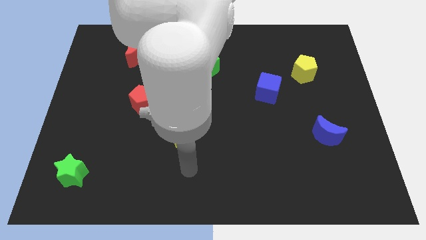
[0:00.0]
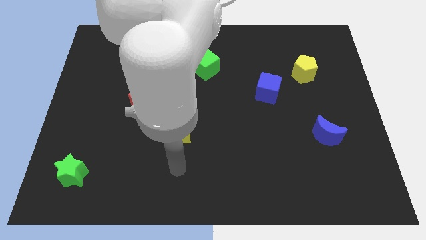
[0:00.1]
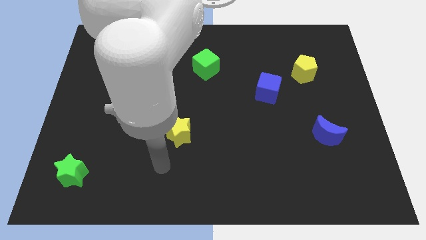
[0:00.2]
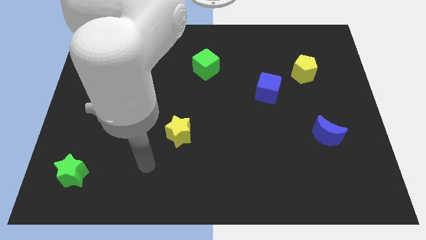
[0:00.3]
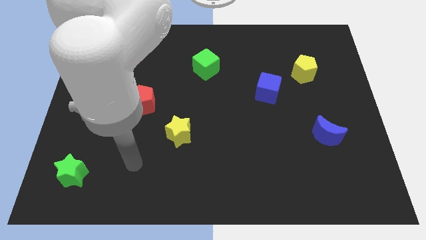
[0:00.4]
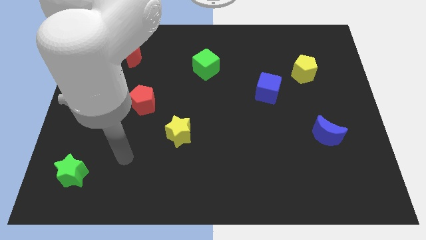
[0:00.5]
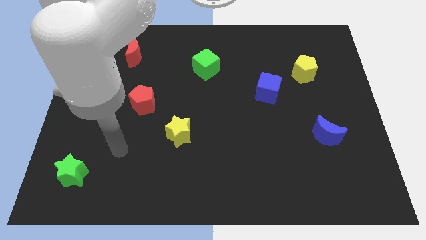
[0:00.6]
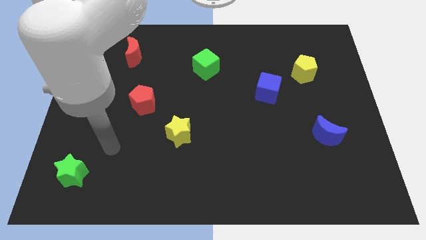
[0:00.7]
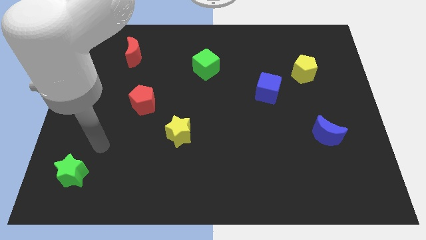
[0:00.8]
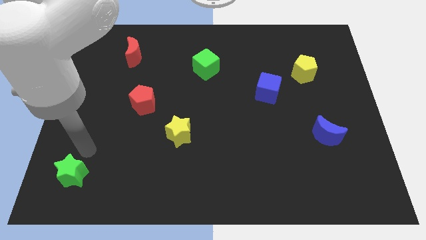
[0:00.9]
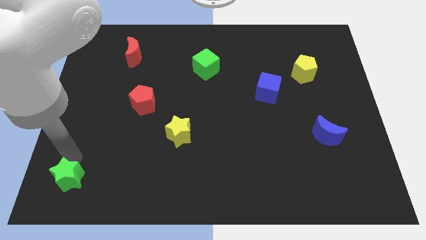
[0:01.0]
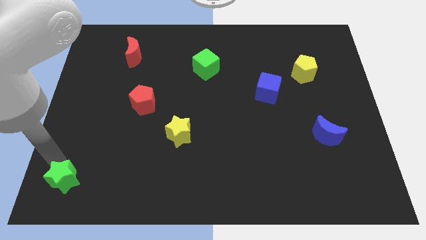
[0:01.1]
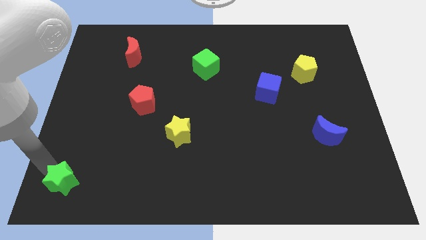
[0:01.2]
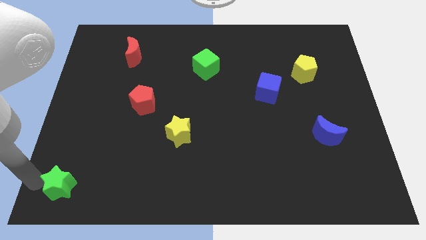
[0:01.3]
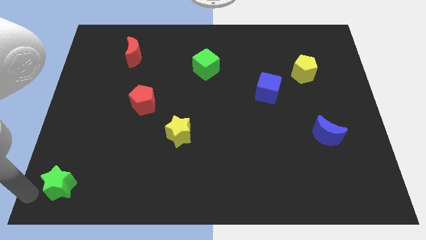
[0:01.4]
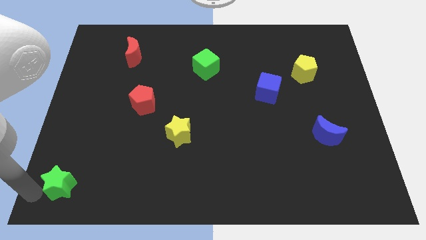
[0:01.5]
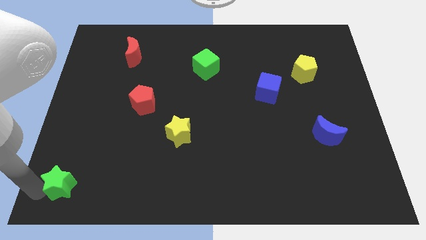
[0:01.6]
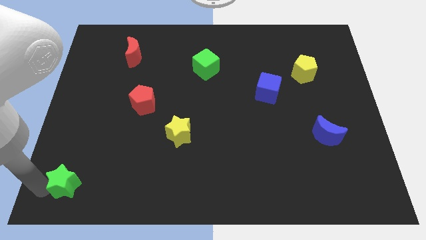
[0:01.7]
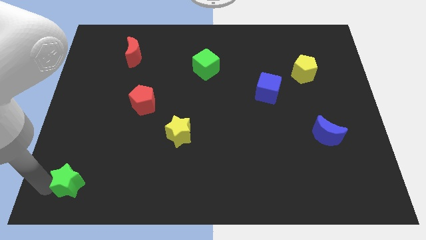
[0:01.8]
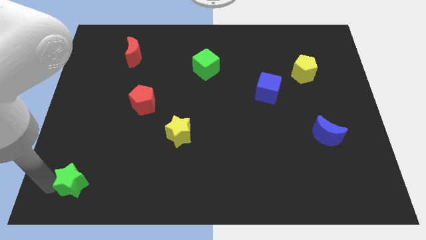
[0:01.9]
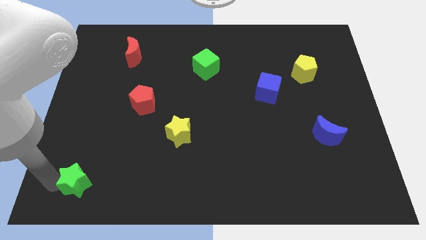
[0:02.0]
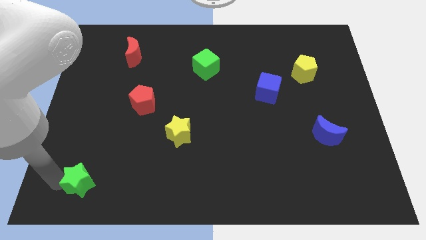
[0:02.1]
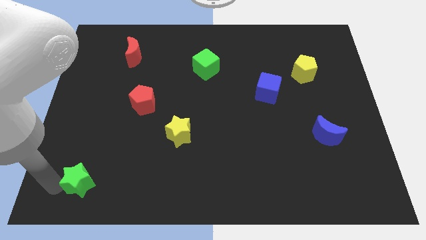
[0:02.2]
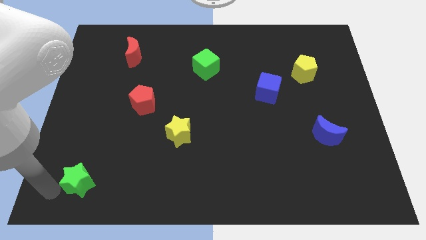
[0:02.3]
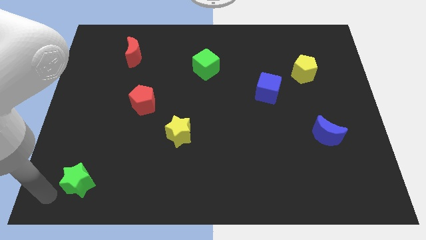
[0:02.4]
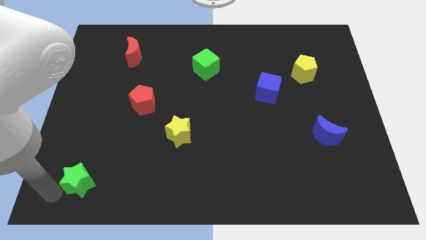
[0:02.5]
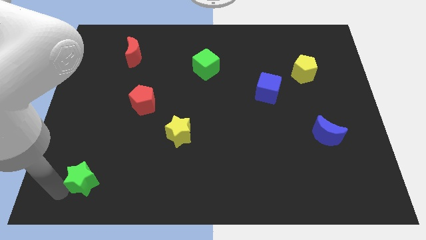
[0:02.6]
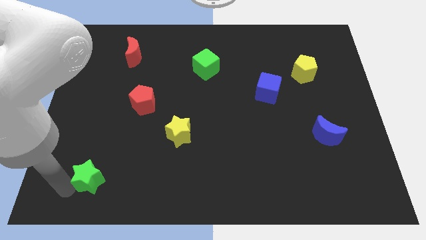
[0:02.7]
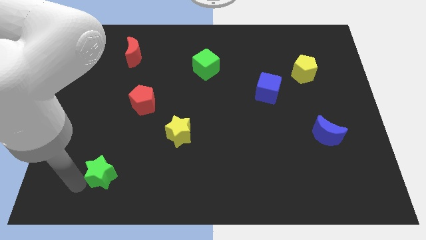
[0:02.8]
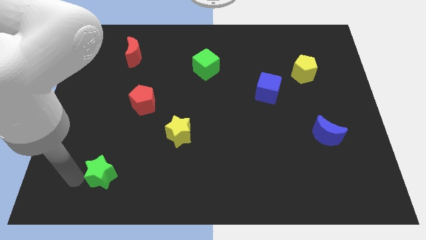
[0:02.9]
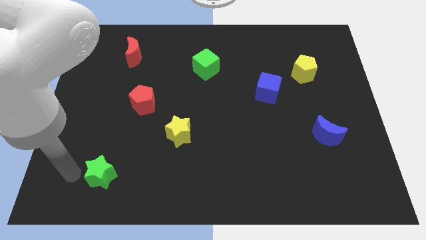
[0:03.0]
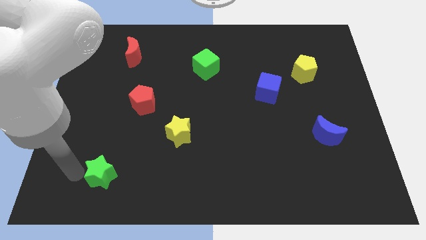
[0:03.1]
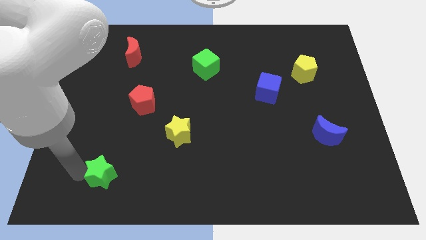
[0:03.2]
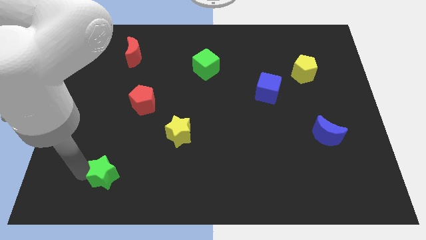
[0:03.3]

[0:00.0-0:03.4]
slightly move the green star right

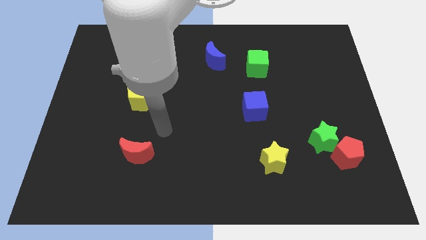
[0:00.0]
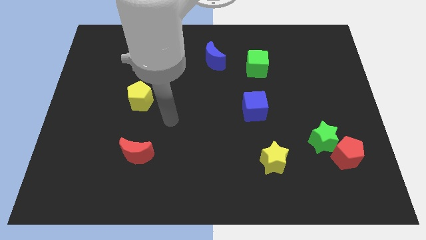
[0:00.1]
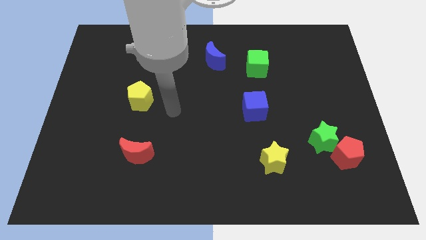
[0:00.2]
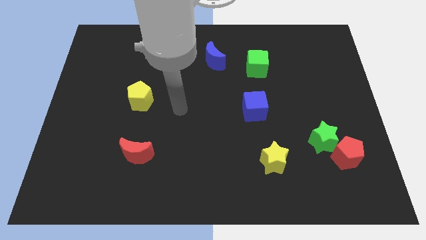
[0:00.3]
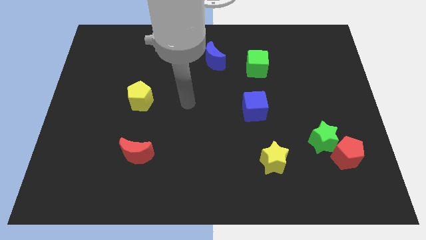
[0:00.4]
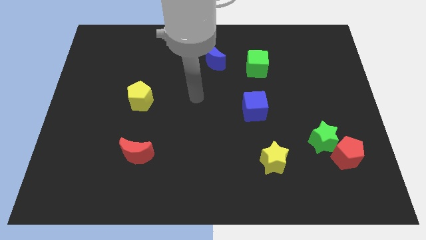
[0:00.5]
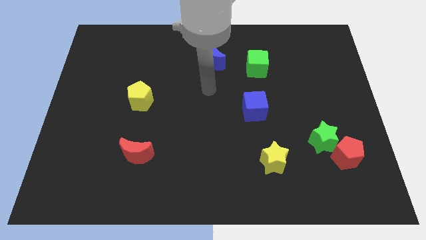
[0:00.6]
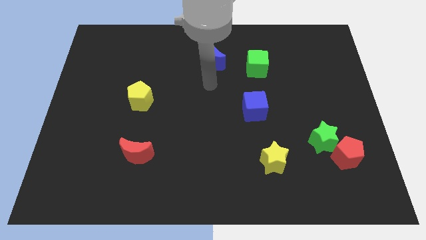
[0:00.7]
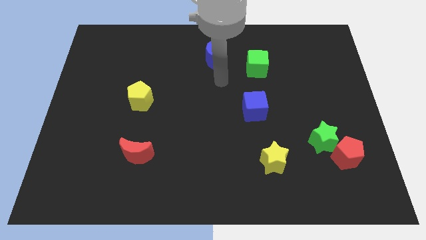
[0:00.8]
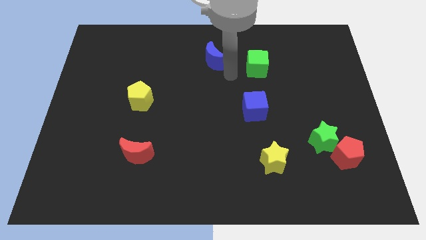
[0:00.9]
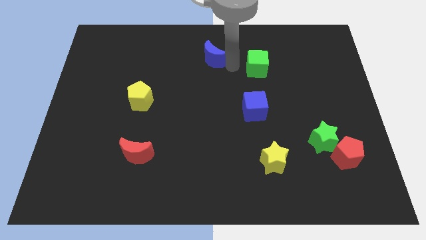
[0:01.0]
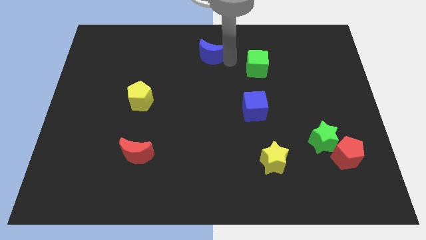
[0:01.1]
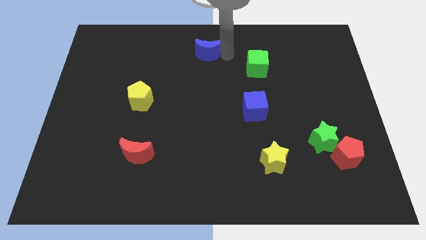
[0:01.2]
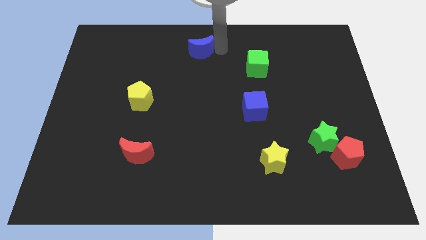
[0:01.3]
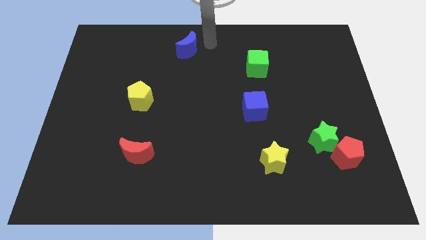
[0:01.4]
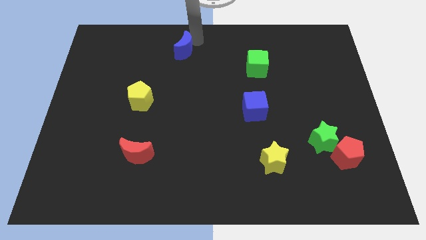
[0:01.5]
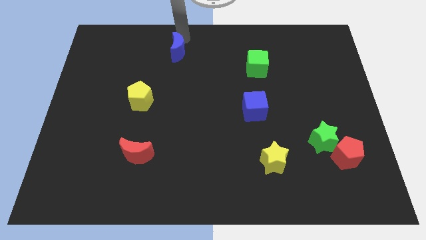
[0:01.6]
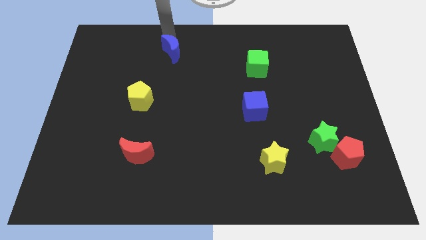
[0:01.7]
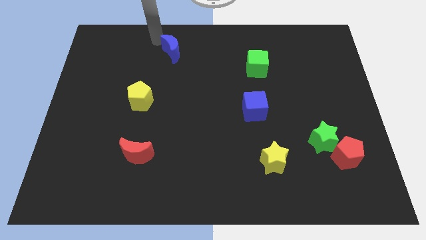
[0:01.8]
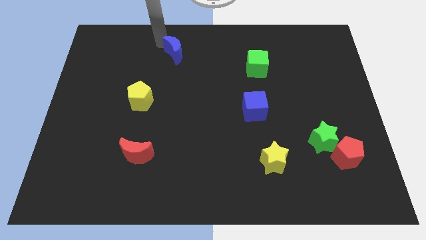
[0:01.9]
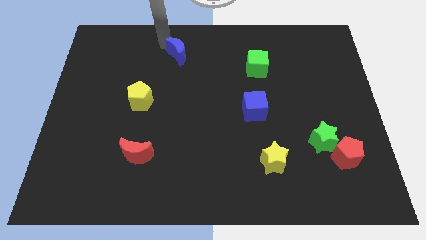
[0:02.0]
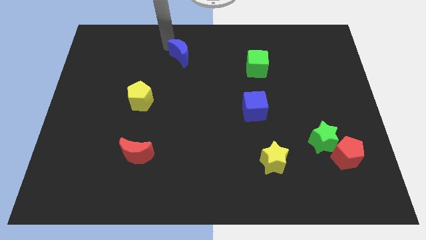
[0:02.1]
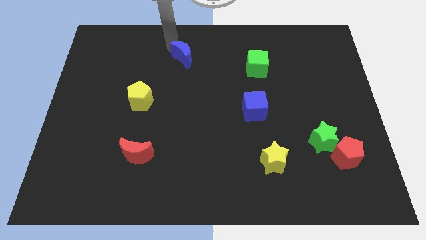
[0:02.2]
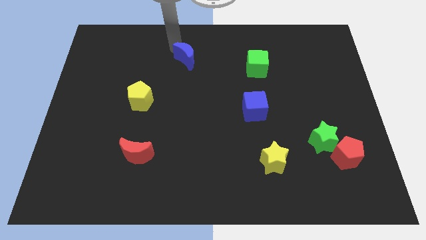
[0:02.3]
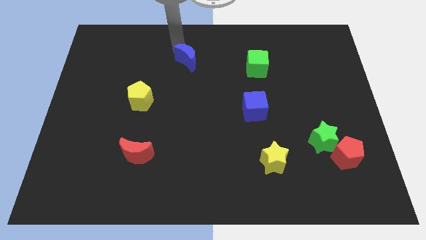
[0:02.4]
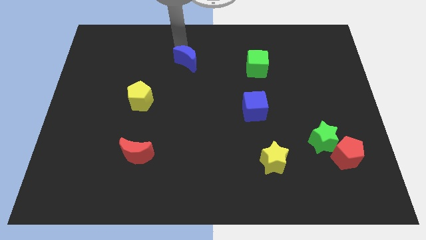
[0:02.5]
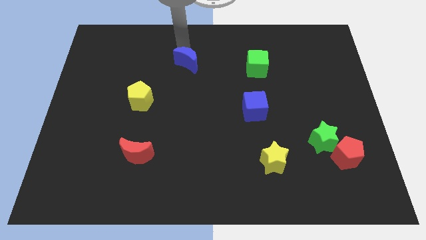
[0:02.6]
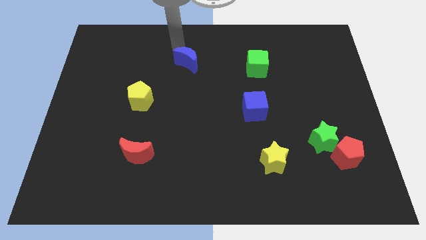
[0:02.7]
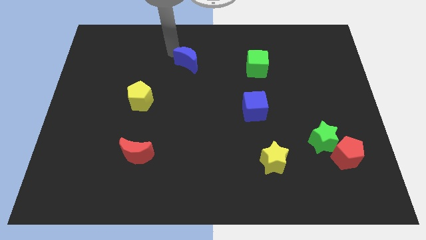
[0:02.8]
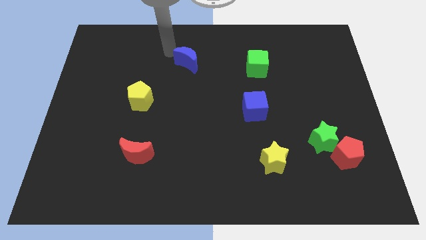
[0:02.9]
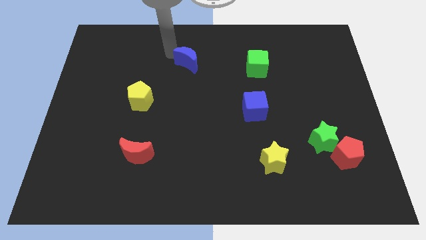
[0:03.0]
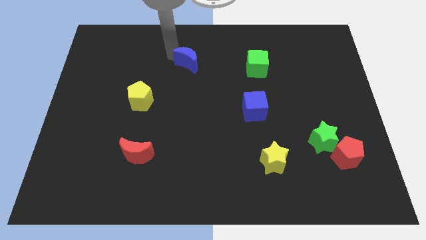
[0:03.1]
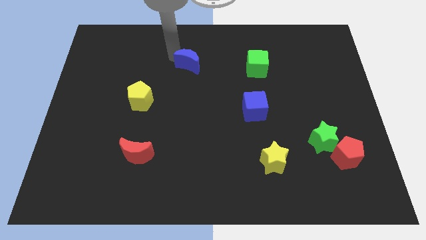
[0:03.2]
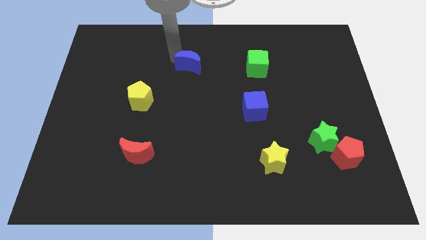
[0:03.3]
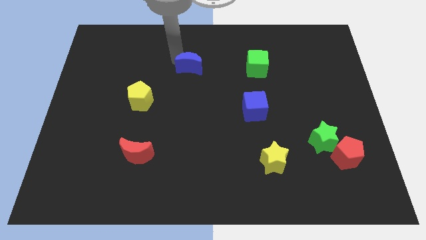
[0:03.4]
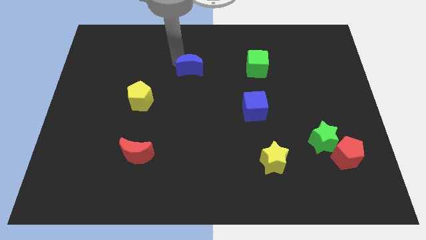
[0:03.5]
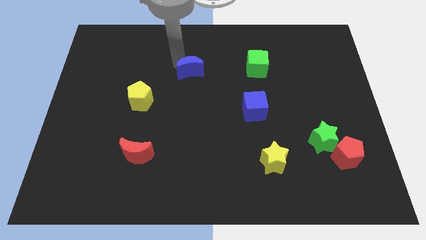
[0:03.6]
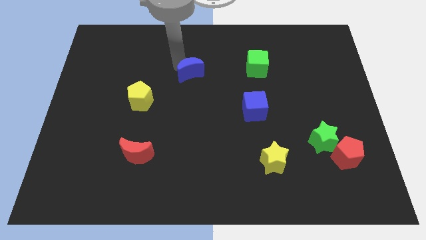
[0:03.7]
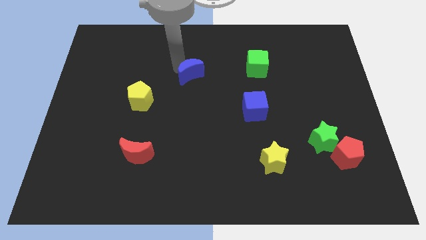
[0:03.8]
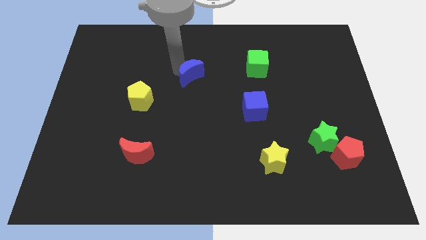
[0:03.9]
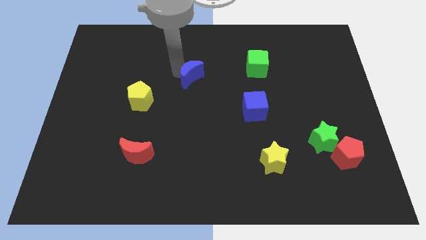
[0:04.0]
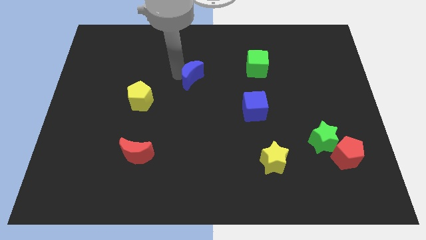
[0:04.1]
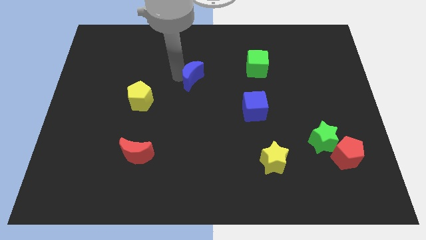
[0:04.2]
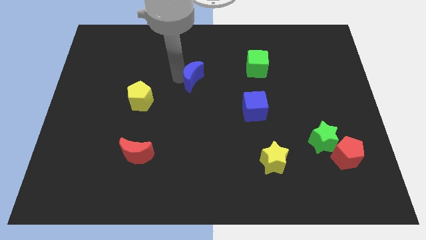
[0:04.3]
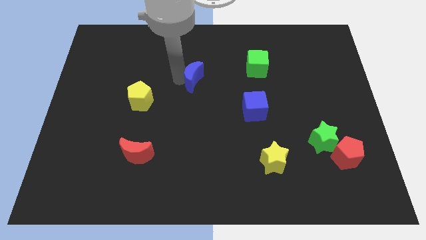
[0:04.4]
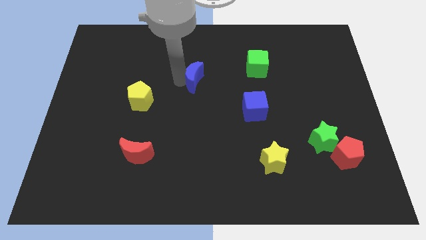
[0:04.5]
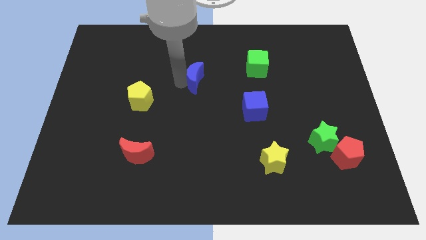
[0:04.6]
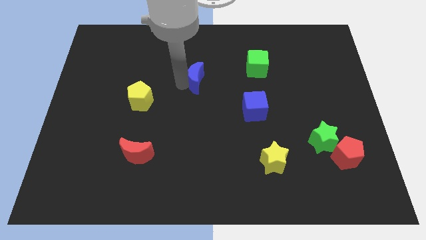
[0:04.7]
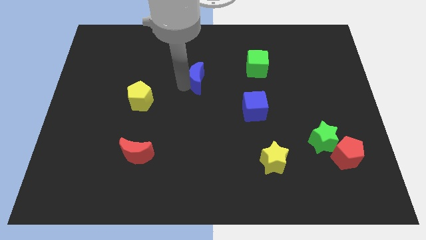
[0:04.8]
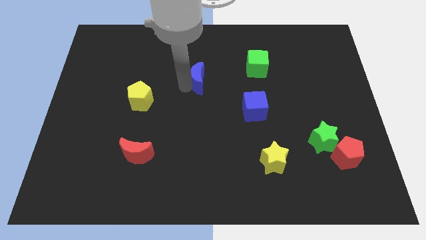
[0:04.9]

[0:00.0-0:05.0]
slightly slide the blue moon down
